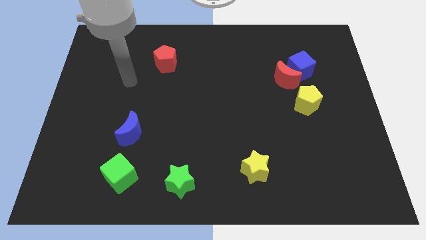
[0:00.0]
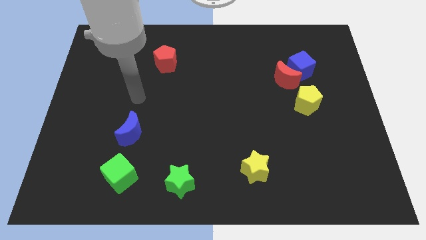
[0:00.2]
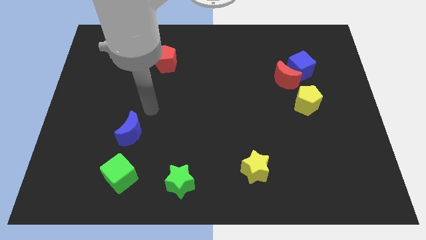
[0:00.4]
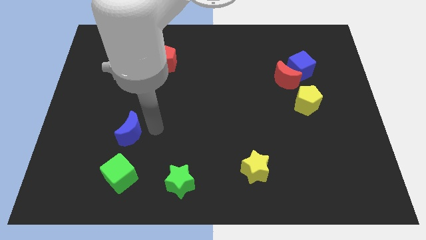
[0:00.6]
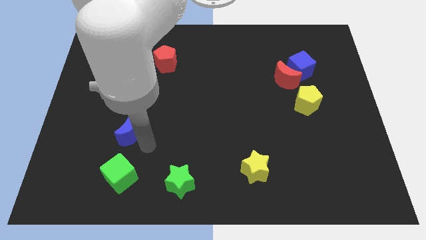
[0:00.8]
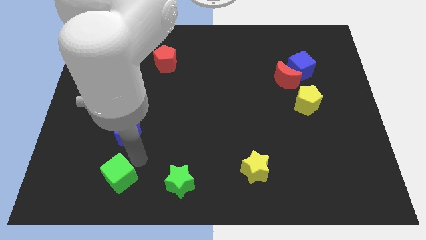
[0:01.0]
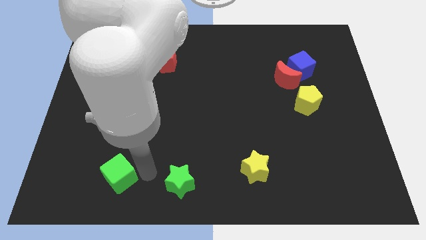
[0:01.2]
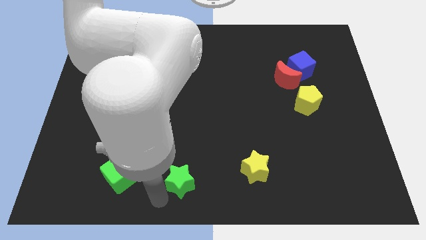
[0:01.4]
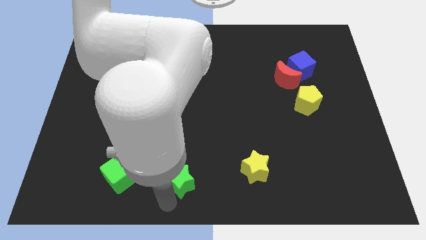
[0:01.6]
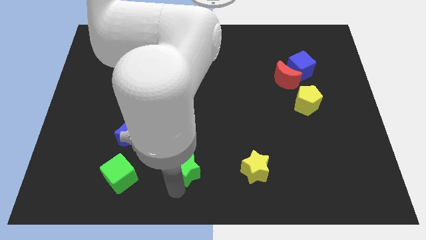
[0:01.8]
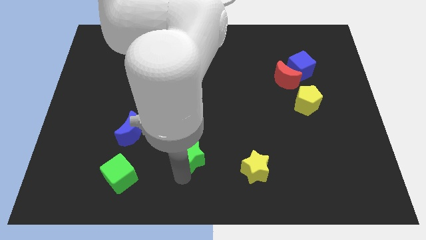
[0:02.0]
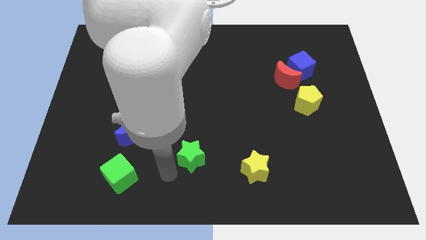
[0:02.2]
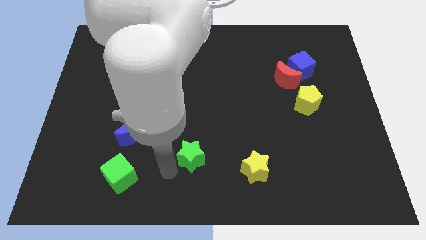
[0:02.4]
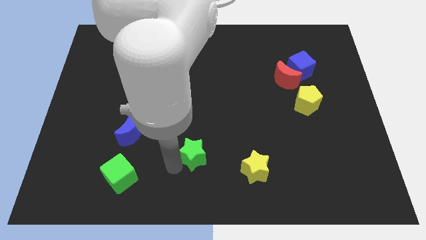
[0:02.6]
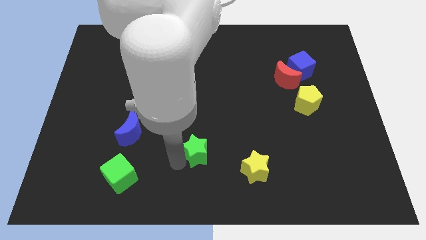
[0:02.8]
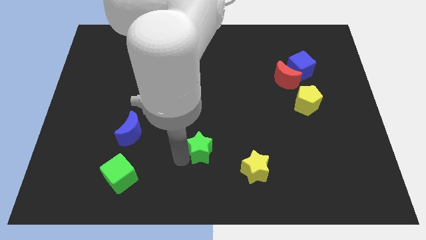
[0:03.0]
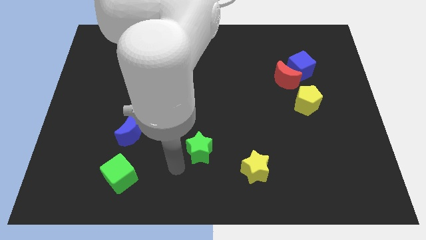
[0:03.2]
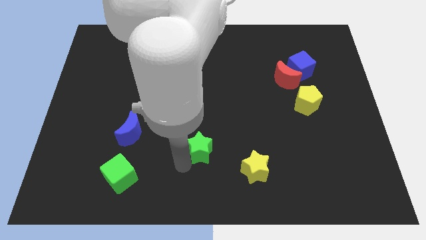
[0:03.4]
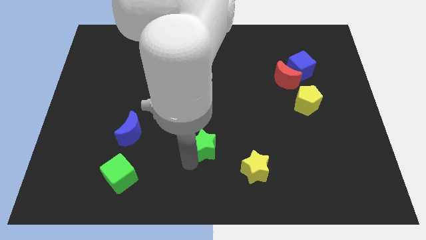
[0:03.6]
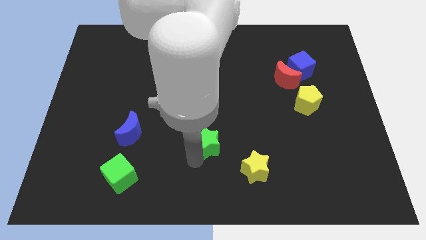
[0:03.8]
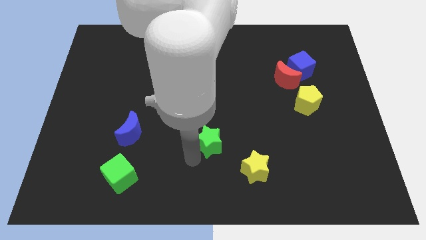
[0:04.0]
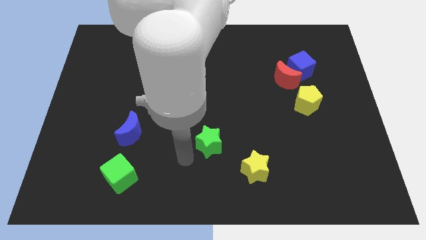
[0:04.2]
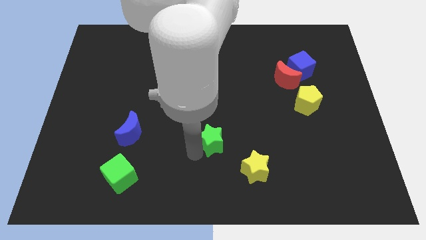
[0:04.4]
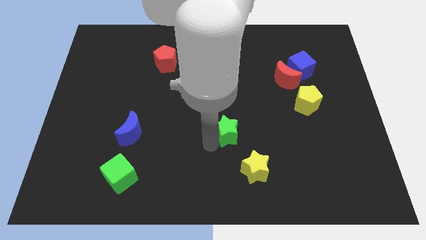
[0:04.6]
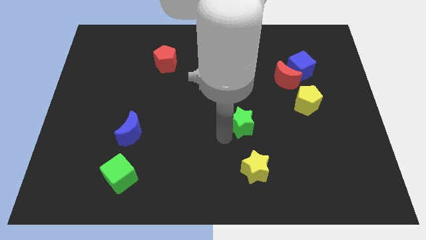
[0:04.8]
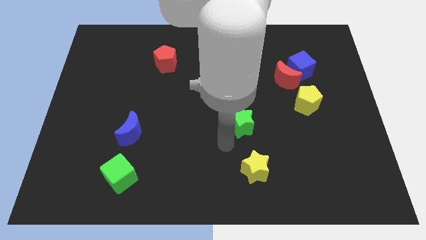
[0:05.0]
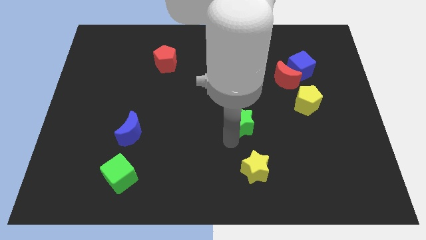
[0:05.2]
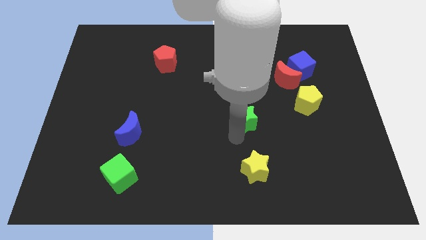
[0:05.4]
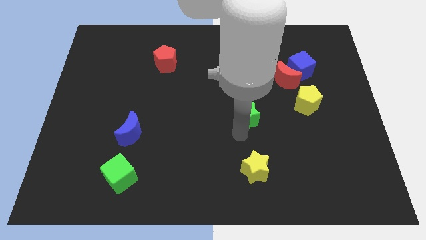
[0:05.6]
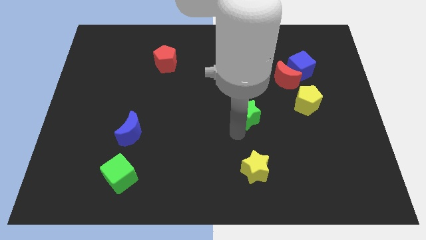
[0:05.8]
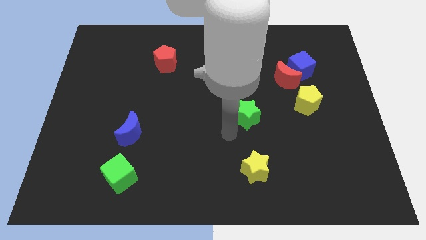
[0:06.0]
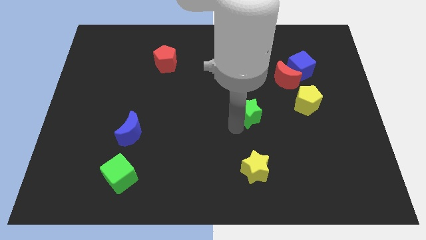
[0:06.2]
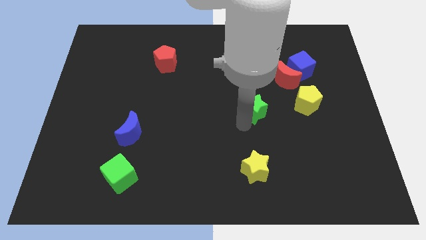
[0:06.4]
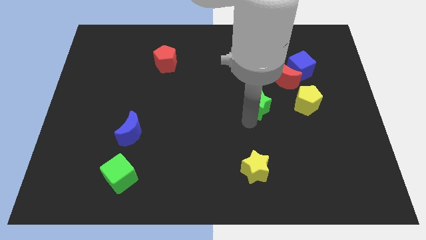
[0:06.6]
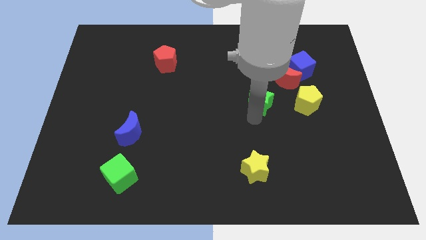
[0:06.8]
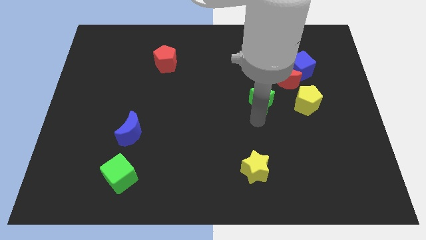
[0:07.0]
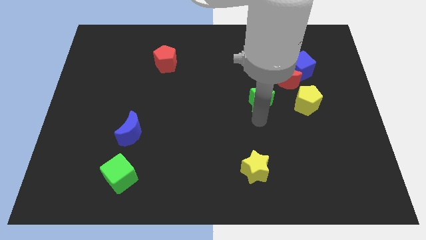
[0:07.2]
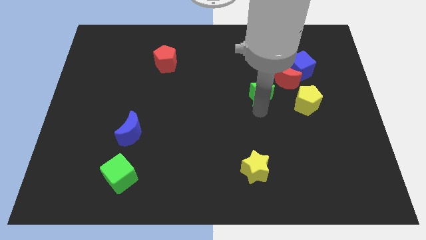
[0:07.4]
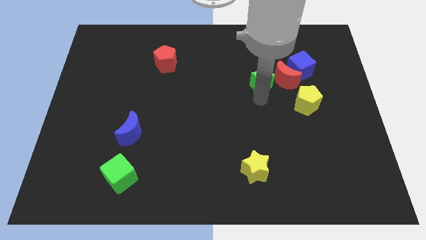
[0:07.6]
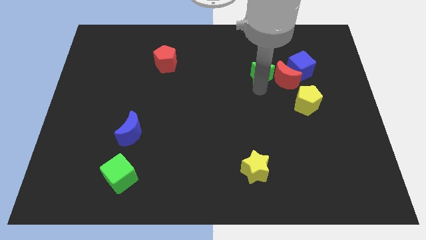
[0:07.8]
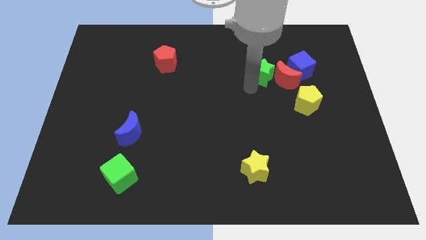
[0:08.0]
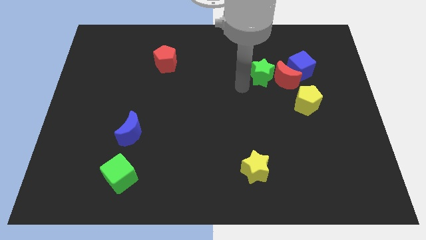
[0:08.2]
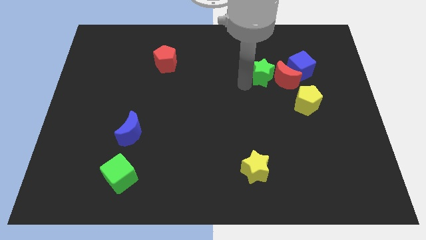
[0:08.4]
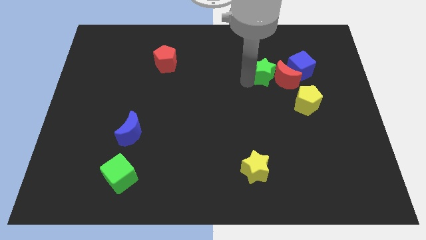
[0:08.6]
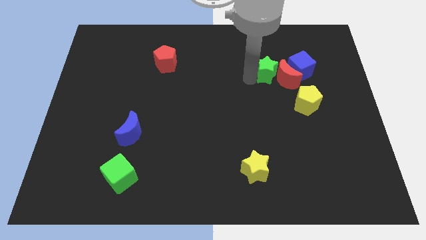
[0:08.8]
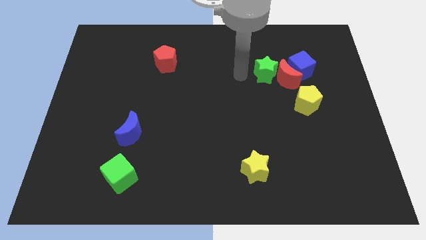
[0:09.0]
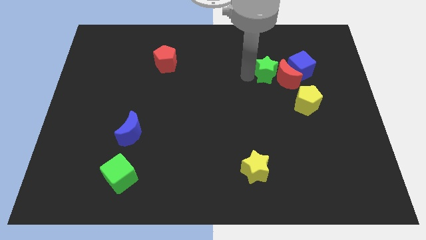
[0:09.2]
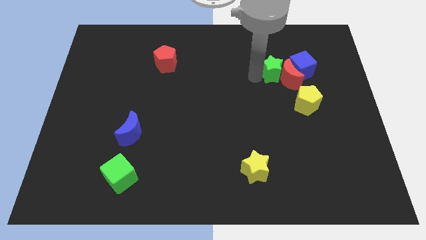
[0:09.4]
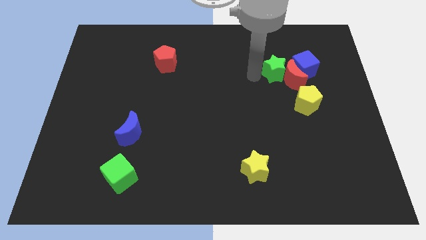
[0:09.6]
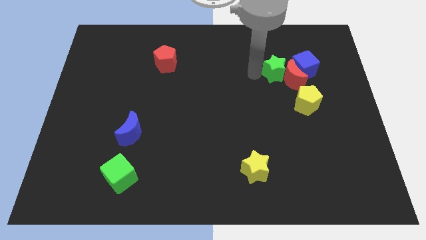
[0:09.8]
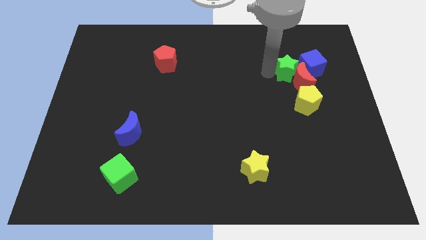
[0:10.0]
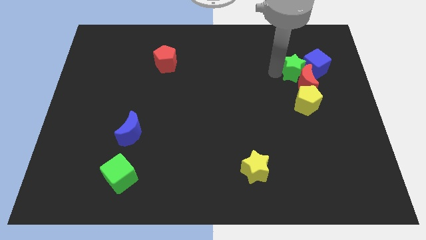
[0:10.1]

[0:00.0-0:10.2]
move the green star next to the blue cube

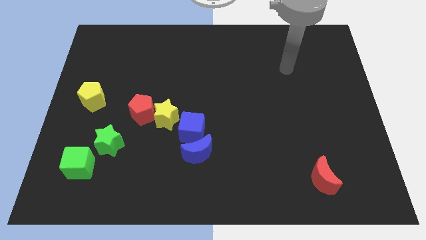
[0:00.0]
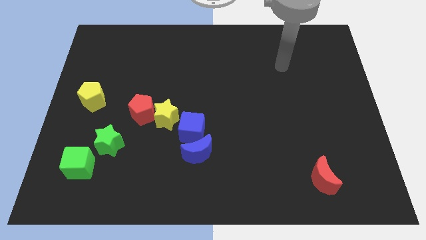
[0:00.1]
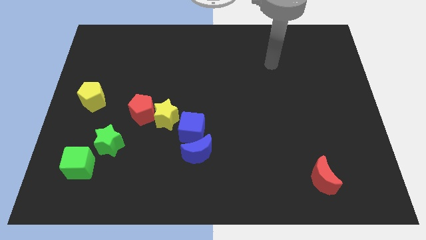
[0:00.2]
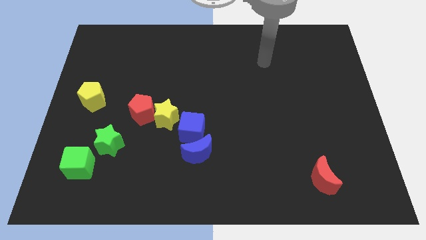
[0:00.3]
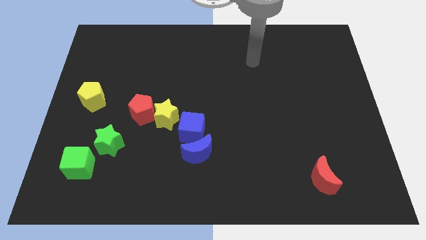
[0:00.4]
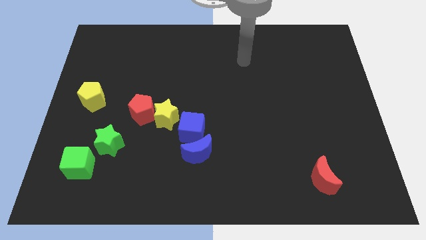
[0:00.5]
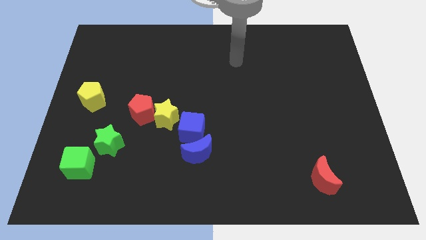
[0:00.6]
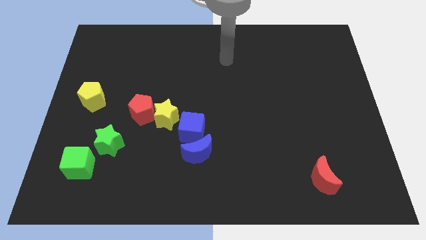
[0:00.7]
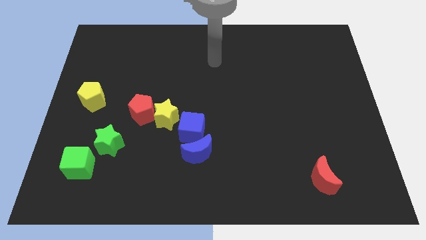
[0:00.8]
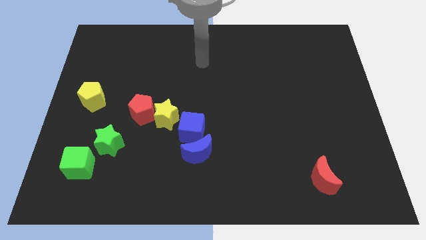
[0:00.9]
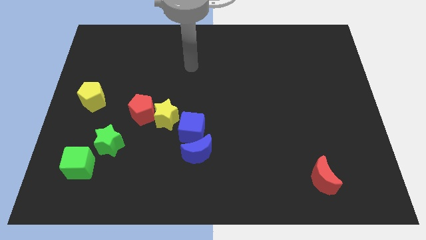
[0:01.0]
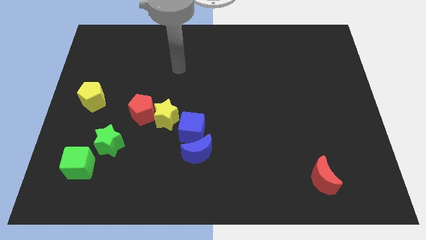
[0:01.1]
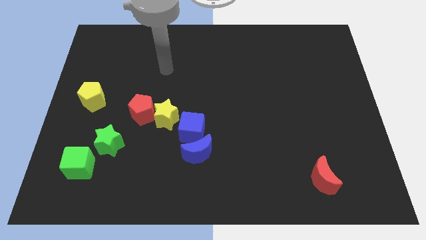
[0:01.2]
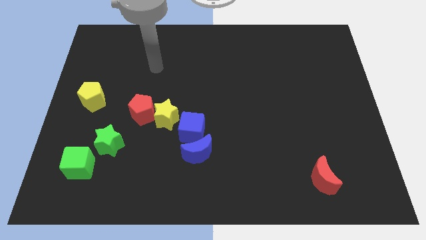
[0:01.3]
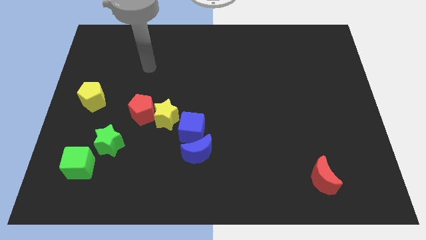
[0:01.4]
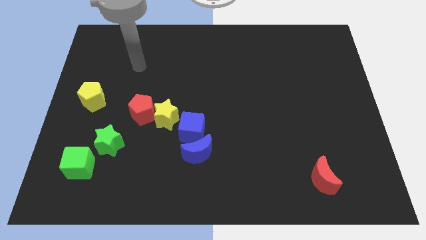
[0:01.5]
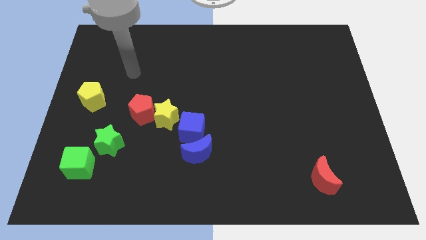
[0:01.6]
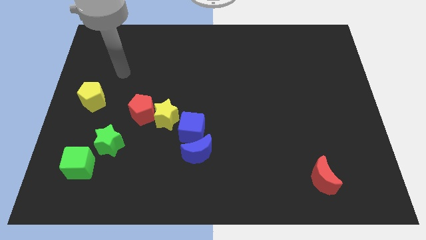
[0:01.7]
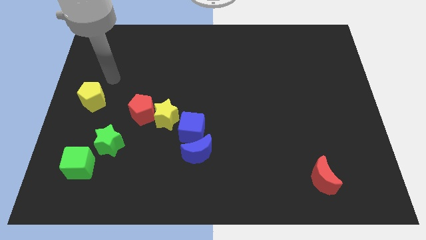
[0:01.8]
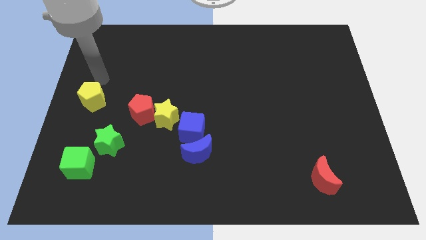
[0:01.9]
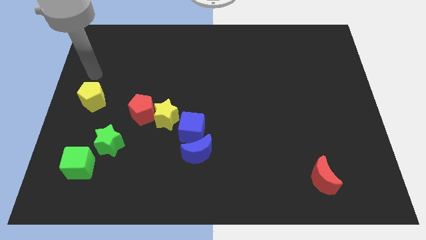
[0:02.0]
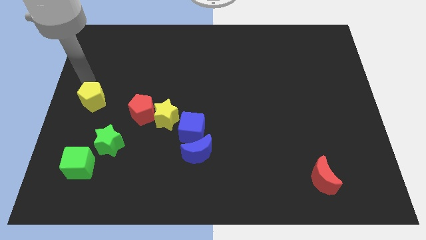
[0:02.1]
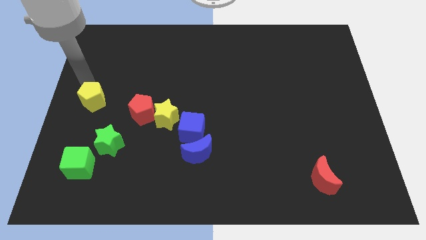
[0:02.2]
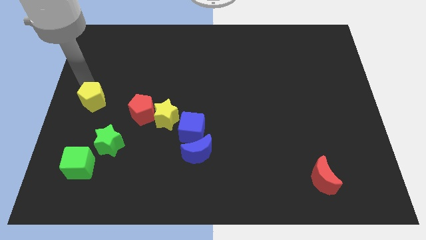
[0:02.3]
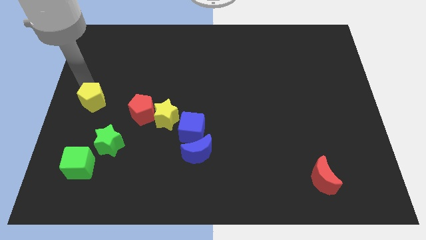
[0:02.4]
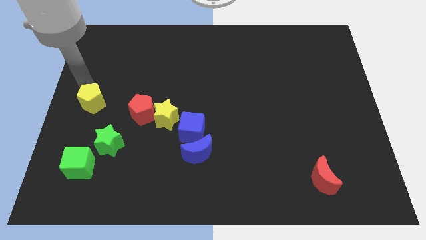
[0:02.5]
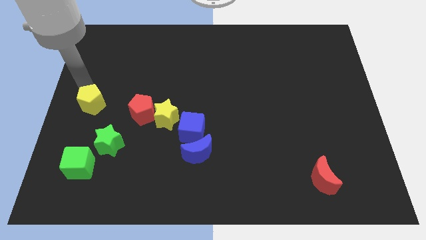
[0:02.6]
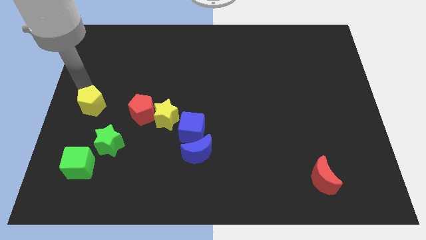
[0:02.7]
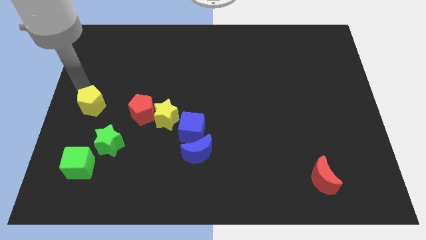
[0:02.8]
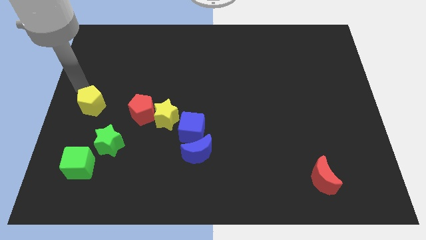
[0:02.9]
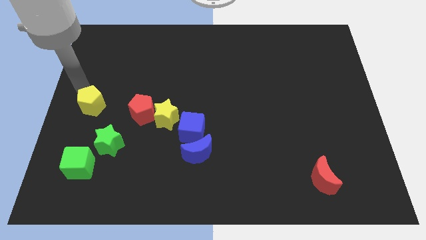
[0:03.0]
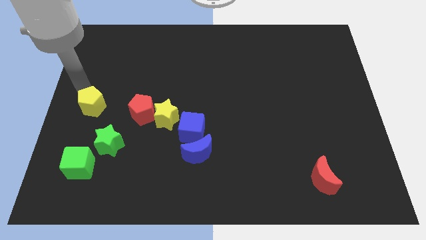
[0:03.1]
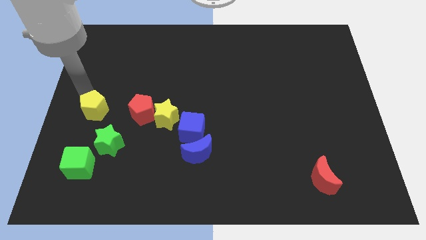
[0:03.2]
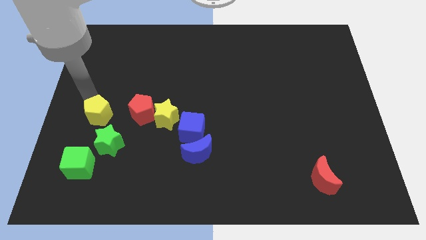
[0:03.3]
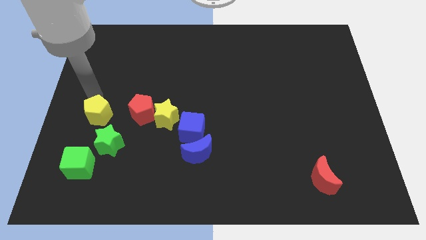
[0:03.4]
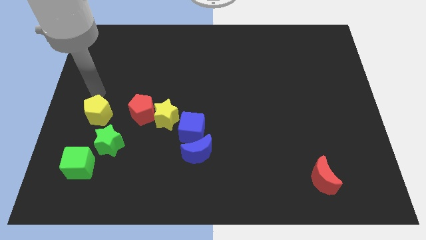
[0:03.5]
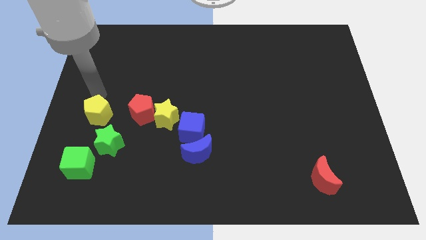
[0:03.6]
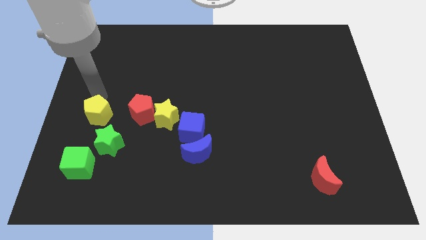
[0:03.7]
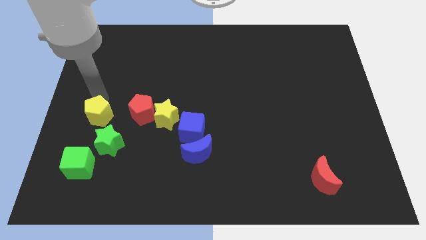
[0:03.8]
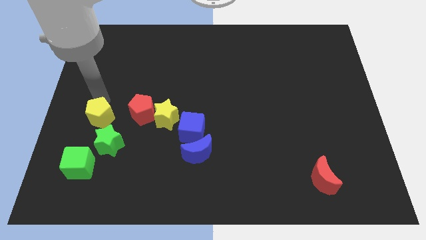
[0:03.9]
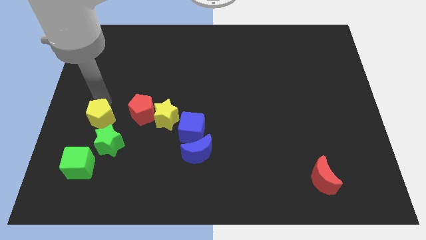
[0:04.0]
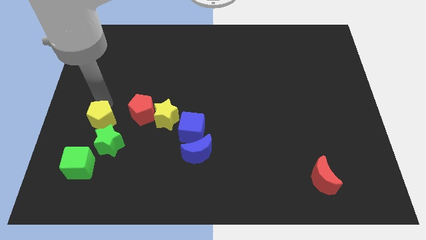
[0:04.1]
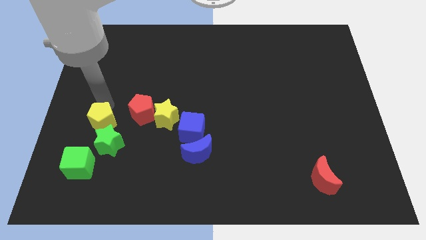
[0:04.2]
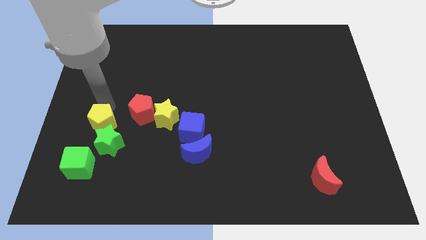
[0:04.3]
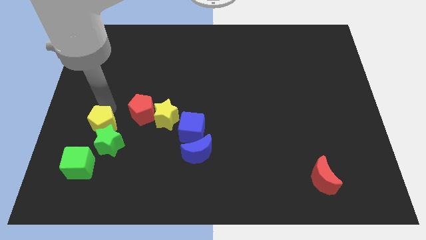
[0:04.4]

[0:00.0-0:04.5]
slide the yellow pentagon to the green star
